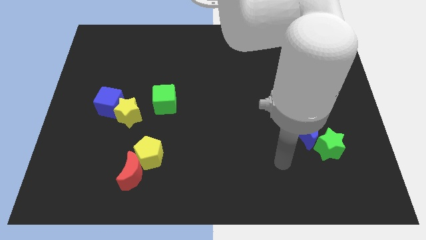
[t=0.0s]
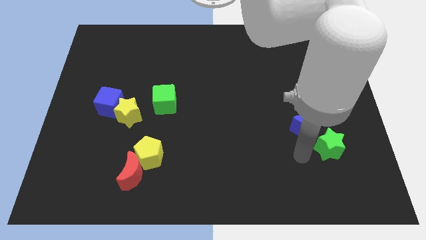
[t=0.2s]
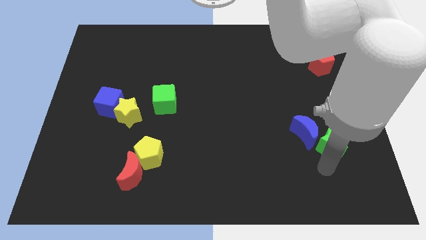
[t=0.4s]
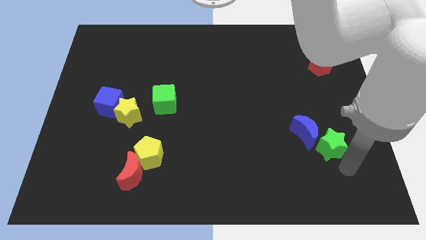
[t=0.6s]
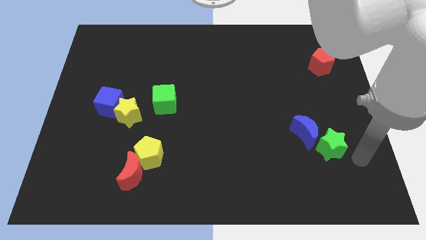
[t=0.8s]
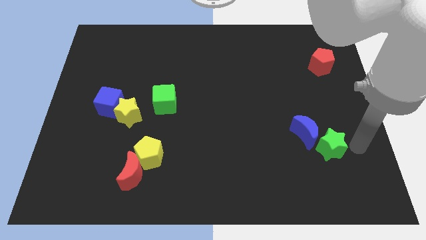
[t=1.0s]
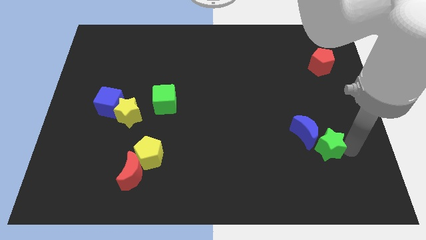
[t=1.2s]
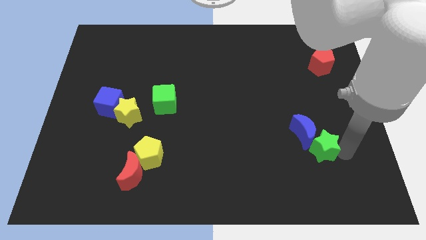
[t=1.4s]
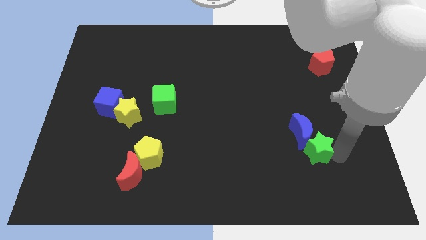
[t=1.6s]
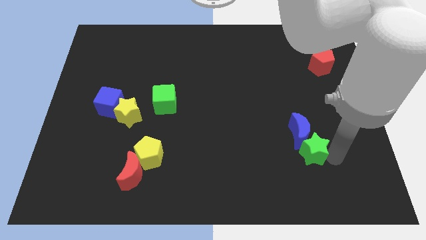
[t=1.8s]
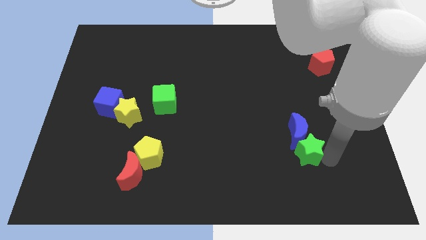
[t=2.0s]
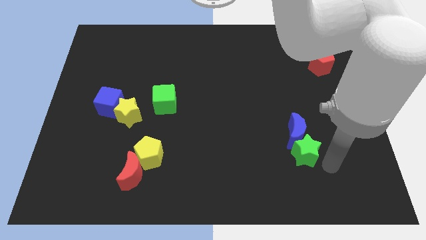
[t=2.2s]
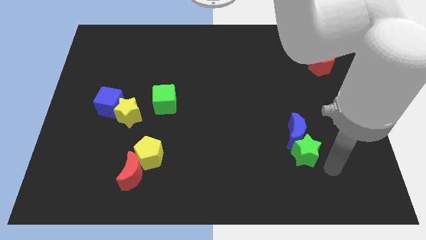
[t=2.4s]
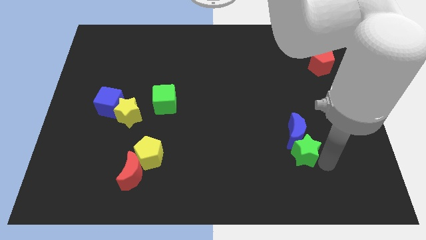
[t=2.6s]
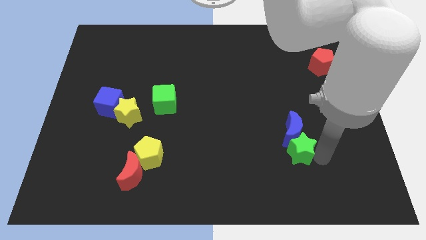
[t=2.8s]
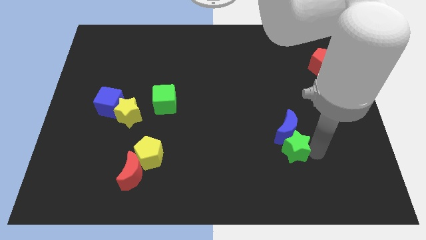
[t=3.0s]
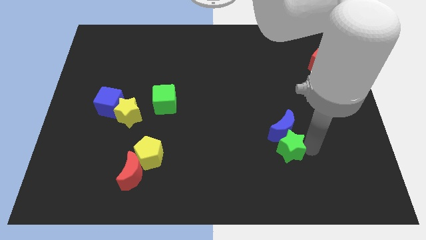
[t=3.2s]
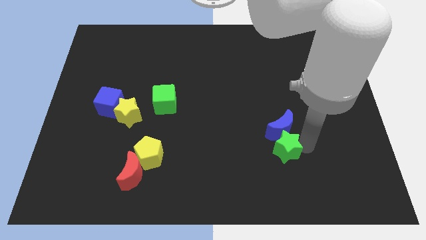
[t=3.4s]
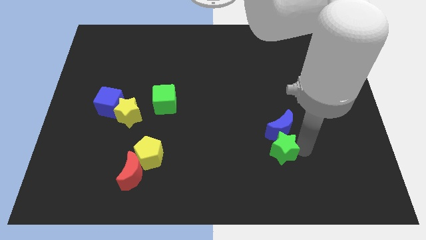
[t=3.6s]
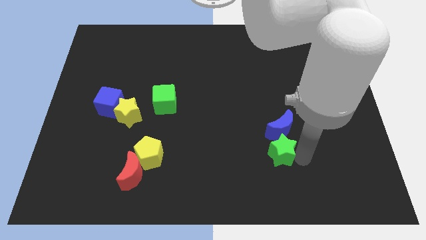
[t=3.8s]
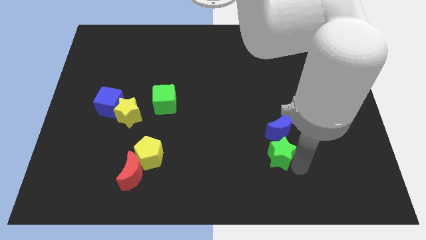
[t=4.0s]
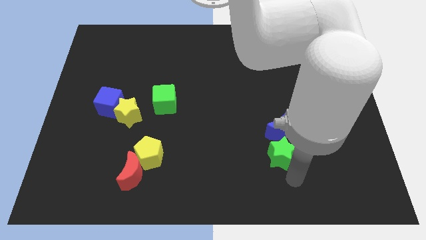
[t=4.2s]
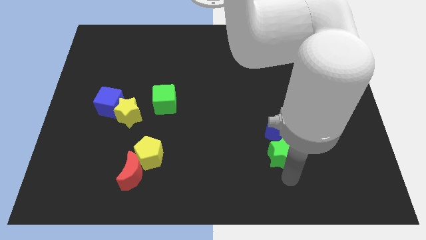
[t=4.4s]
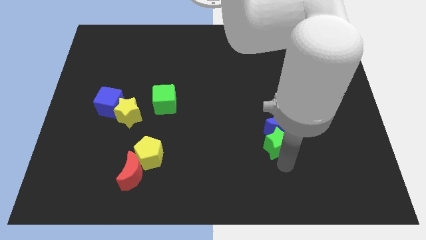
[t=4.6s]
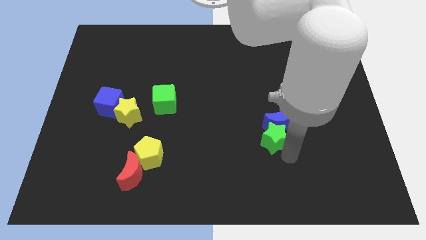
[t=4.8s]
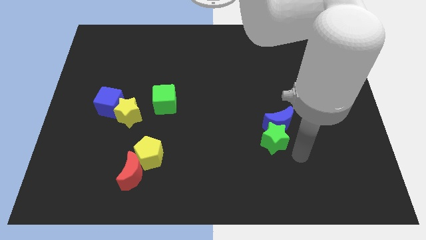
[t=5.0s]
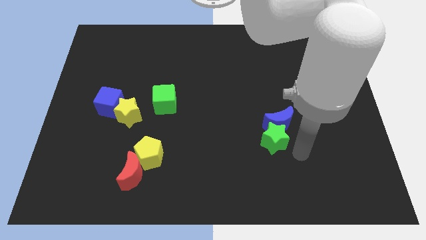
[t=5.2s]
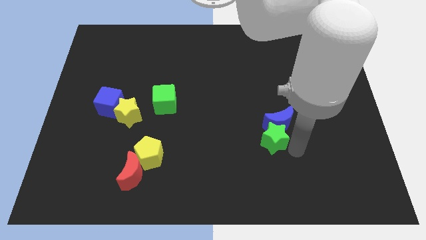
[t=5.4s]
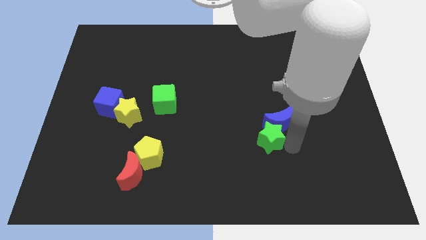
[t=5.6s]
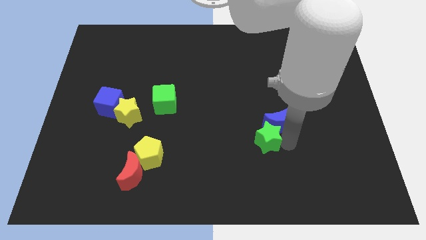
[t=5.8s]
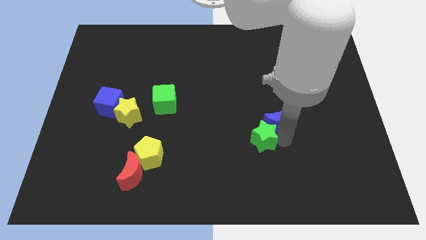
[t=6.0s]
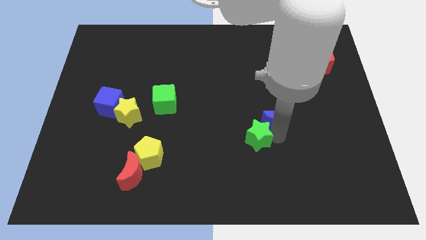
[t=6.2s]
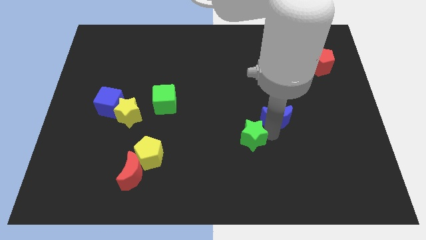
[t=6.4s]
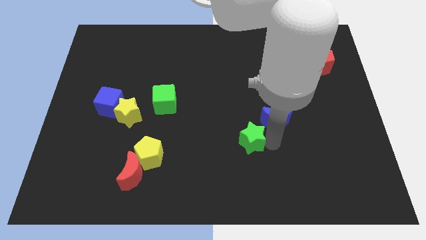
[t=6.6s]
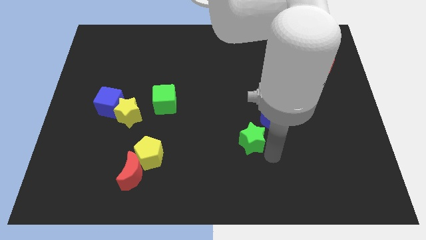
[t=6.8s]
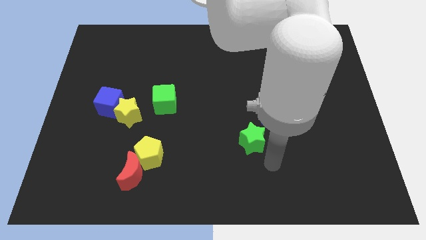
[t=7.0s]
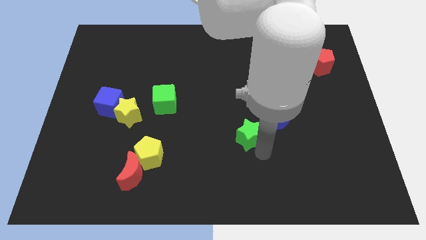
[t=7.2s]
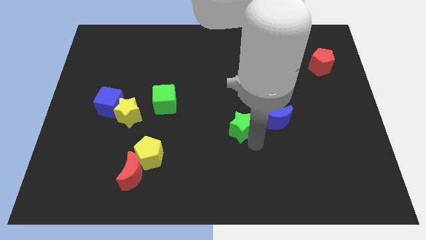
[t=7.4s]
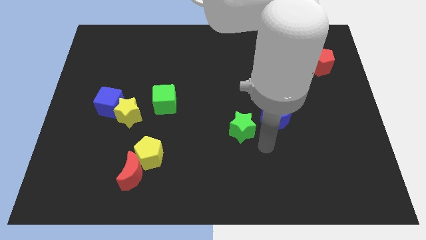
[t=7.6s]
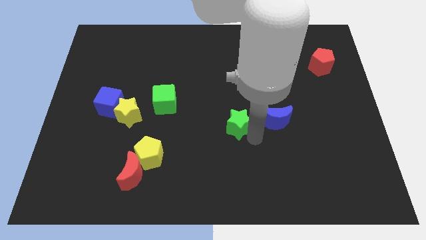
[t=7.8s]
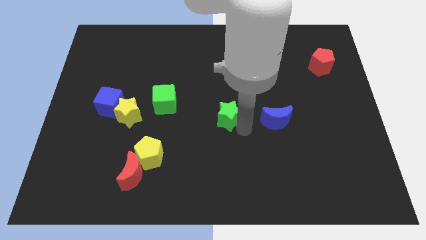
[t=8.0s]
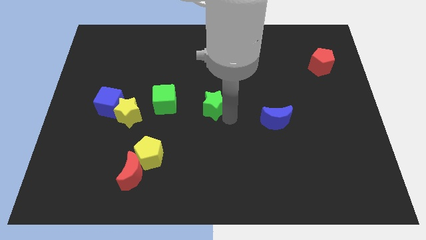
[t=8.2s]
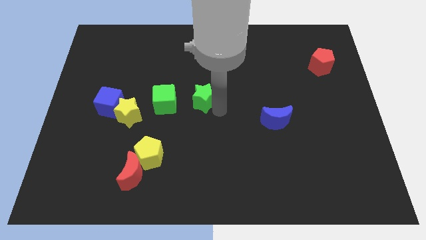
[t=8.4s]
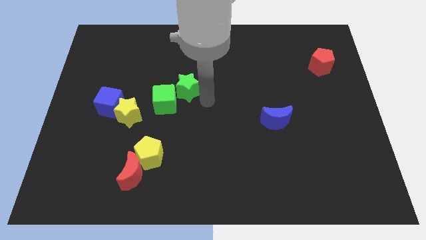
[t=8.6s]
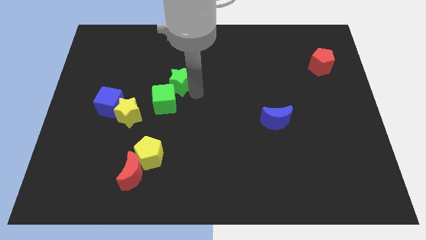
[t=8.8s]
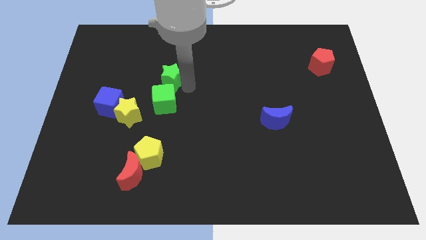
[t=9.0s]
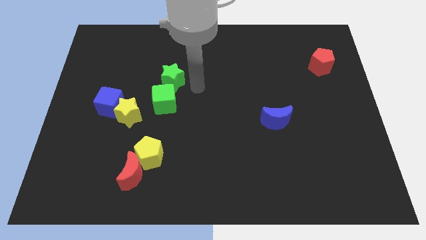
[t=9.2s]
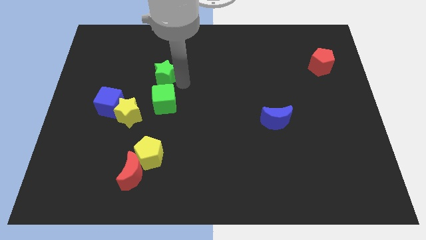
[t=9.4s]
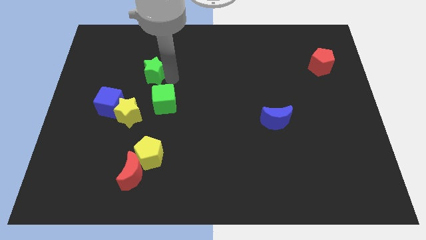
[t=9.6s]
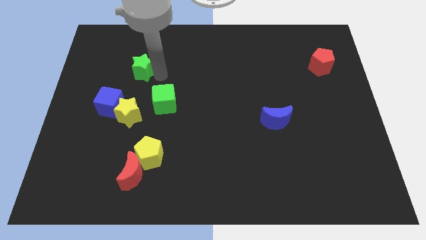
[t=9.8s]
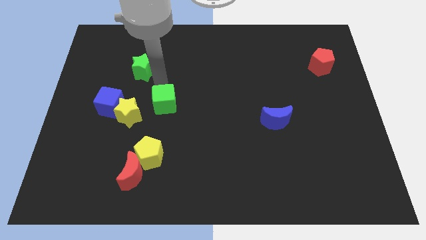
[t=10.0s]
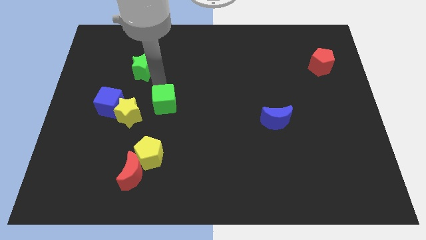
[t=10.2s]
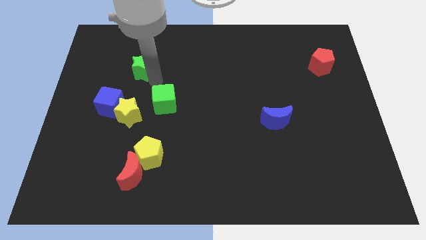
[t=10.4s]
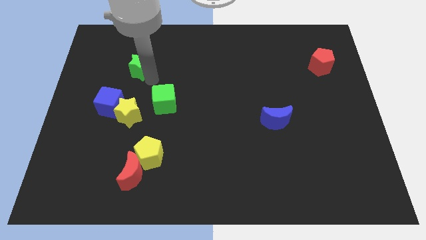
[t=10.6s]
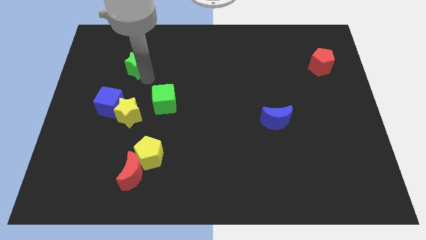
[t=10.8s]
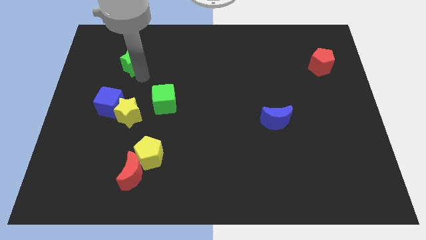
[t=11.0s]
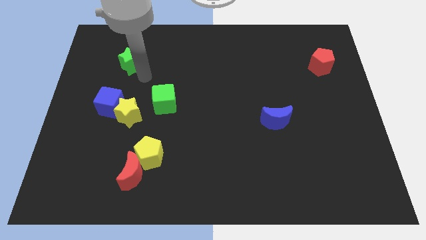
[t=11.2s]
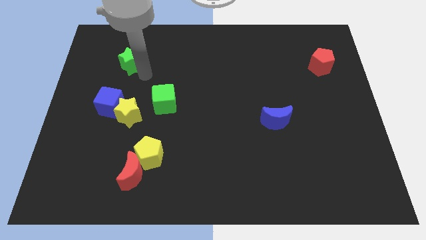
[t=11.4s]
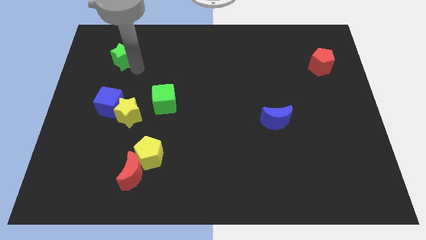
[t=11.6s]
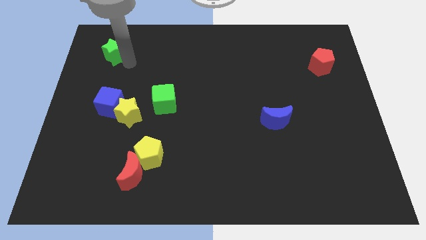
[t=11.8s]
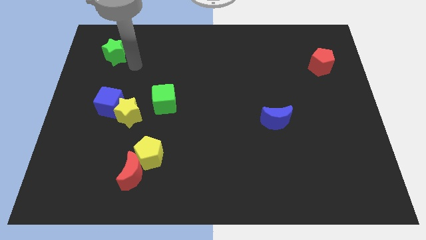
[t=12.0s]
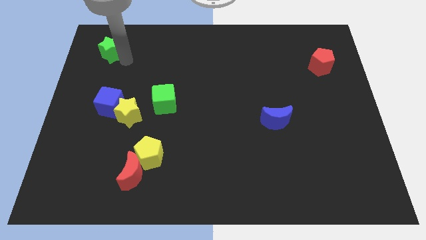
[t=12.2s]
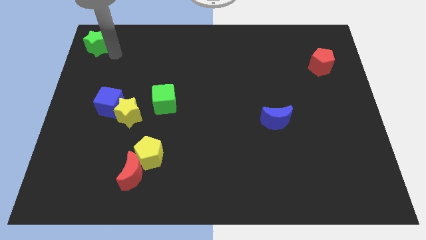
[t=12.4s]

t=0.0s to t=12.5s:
move the green star to the upper left corner

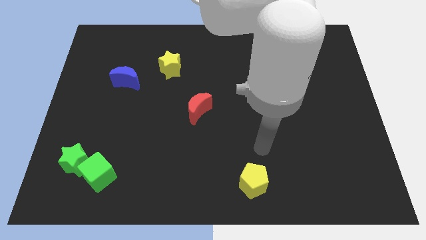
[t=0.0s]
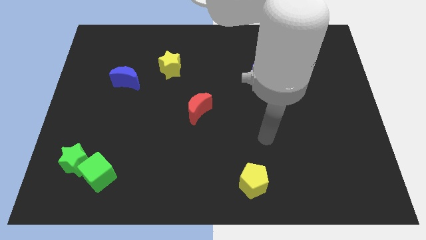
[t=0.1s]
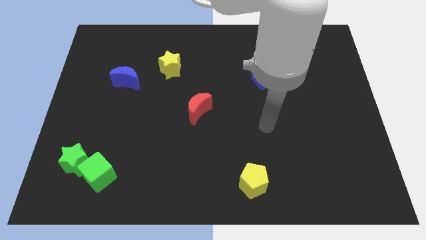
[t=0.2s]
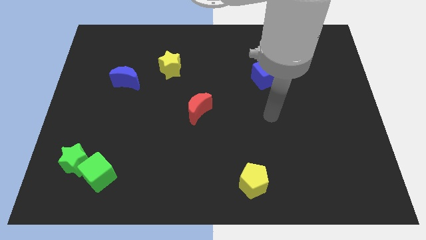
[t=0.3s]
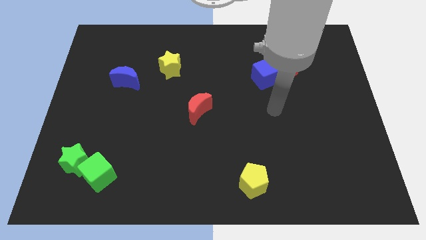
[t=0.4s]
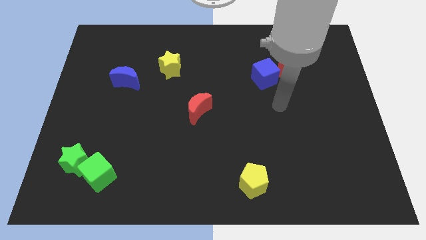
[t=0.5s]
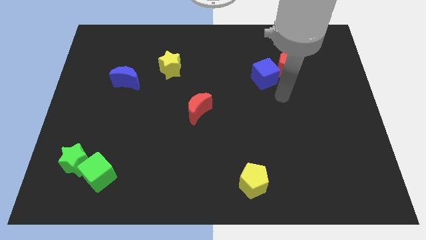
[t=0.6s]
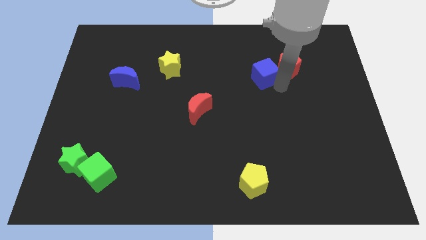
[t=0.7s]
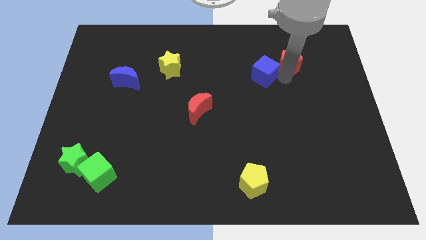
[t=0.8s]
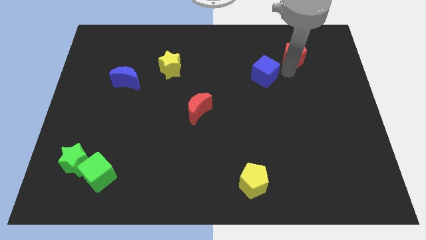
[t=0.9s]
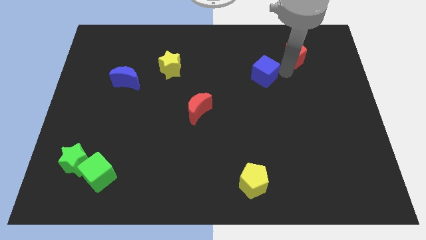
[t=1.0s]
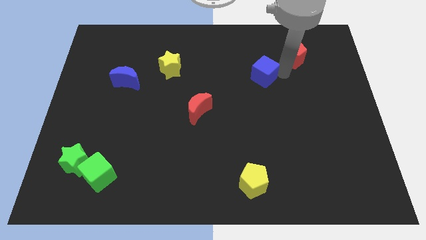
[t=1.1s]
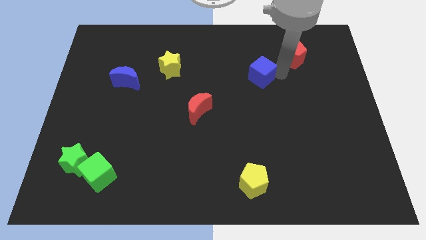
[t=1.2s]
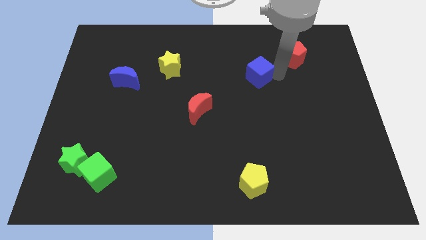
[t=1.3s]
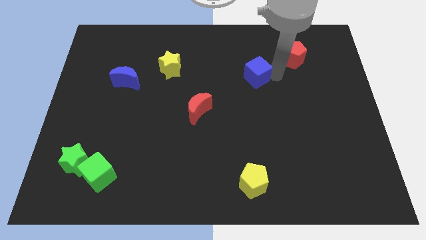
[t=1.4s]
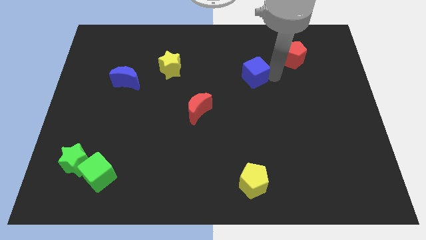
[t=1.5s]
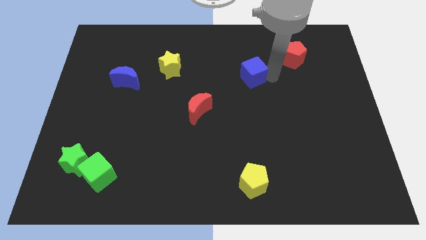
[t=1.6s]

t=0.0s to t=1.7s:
put the blue cube to the middle
